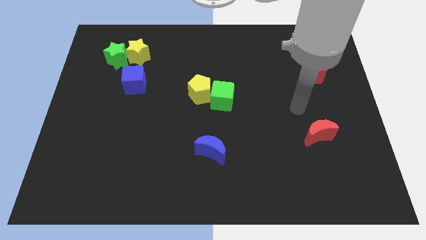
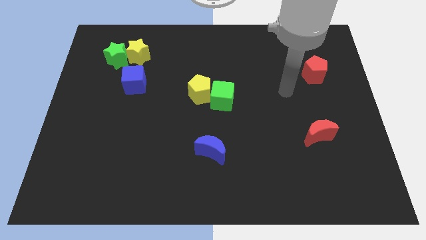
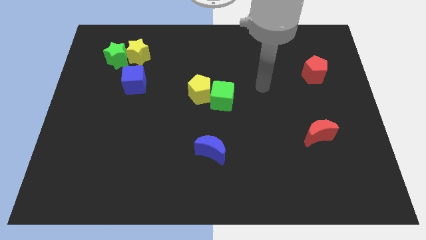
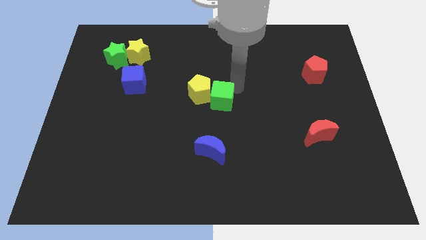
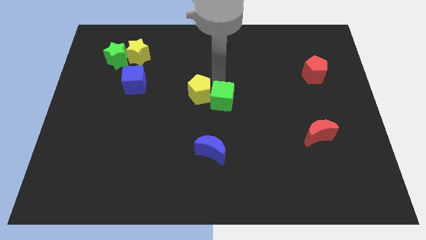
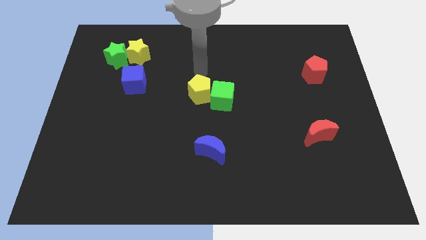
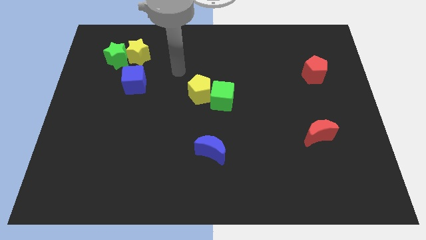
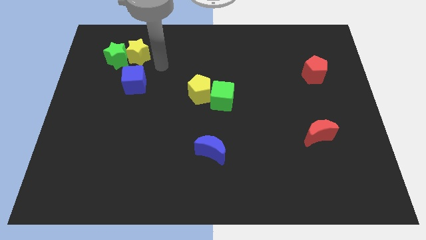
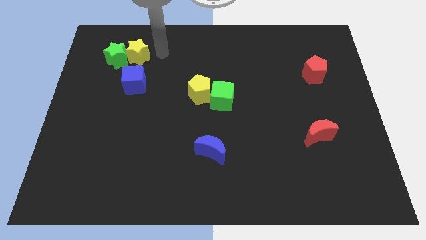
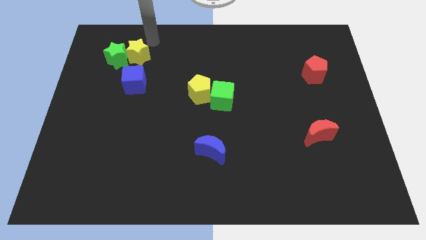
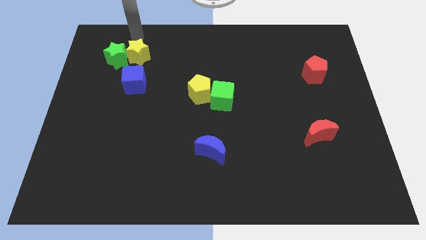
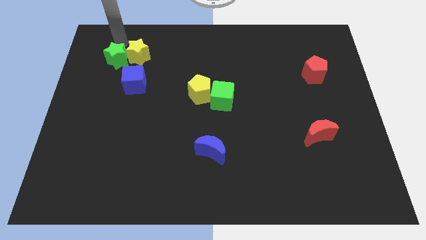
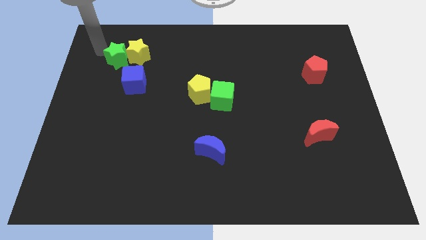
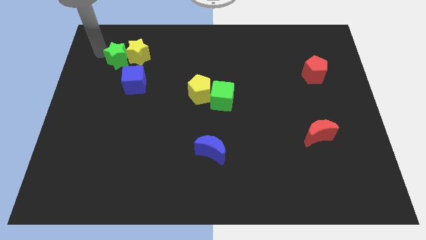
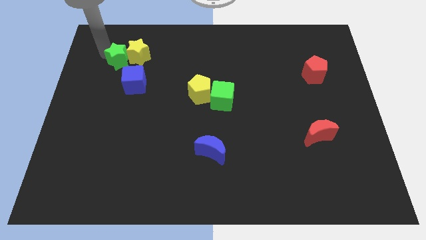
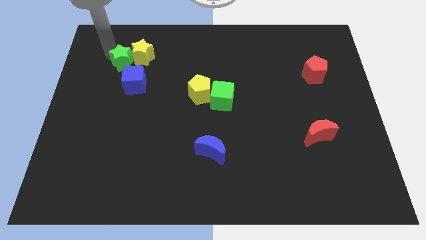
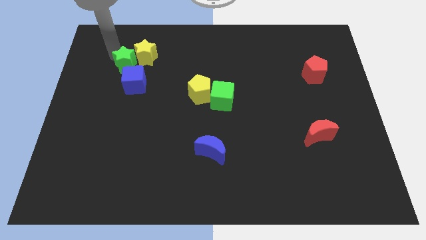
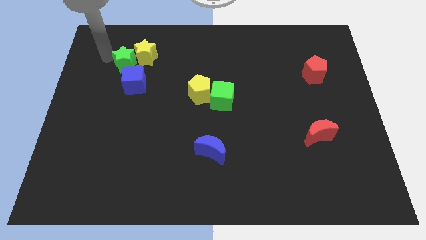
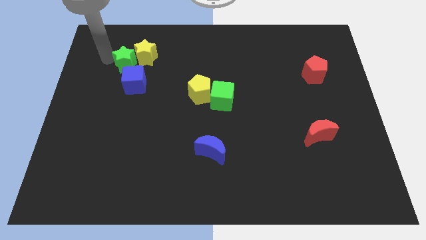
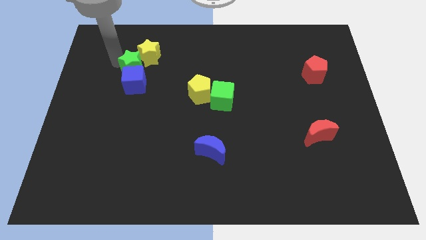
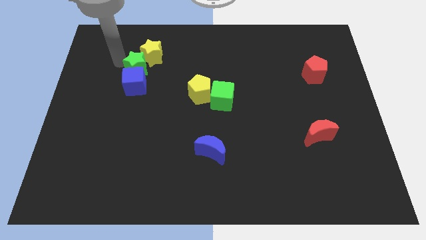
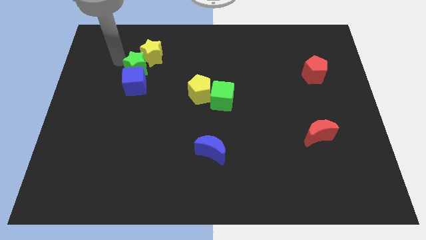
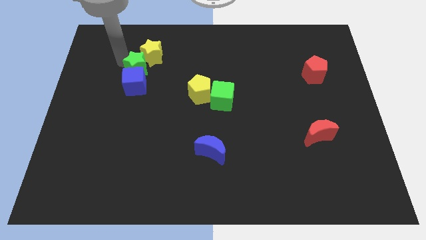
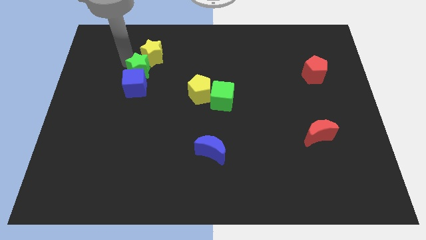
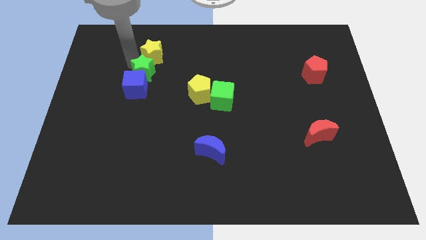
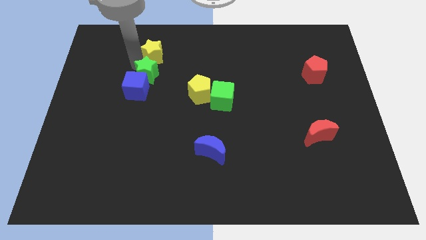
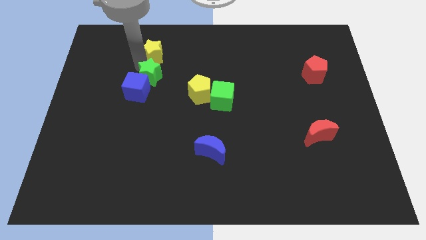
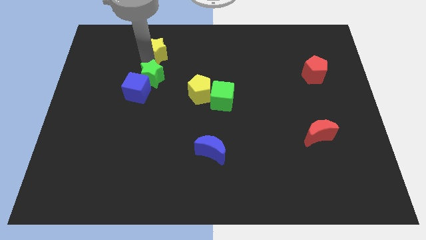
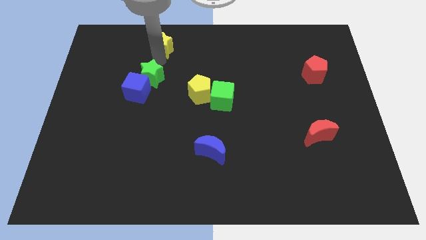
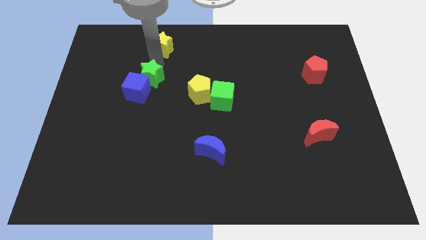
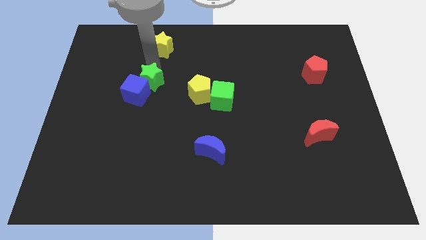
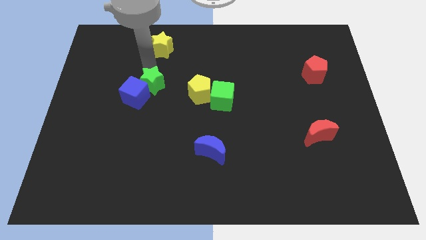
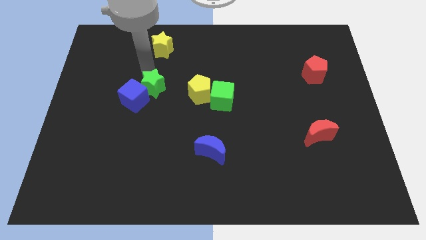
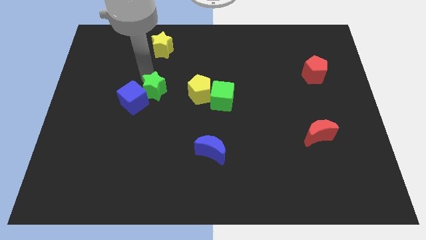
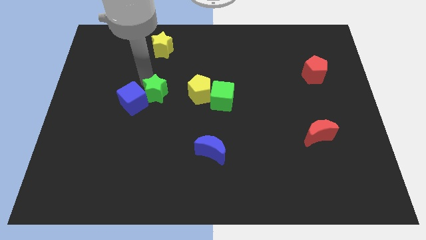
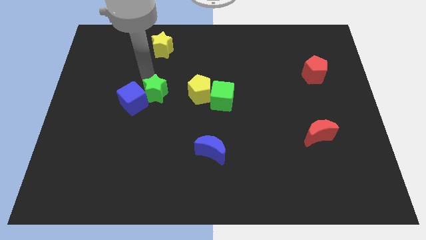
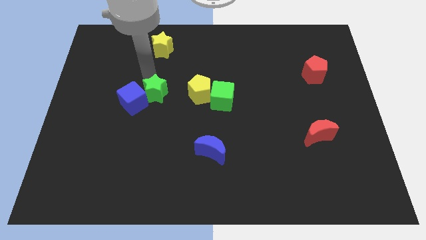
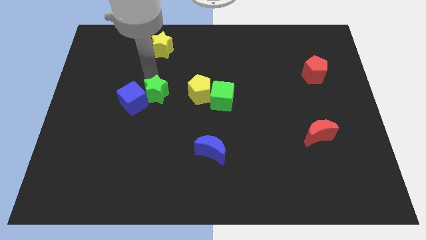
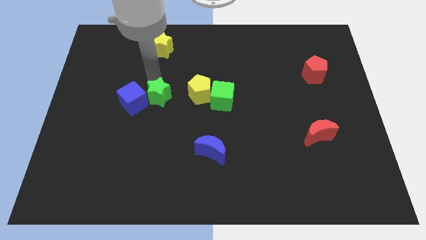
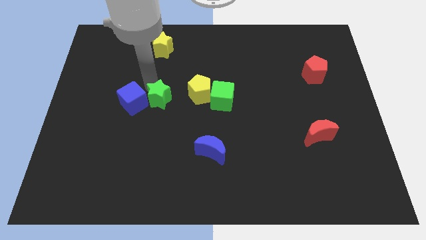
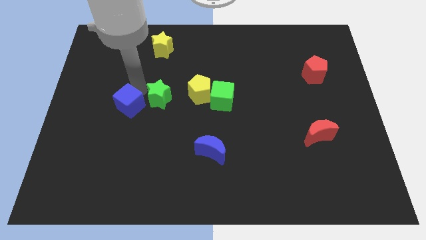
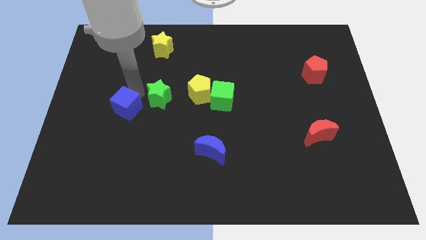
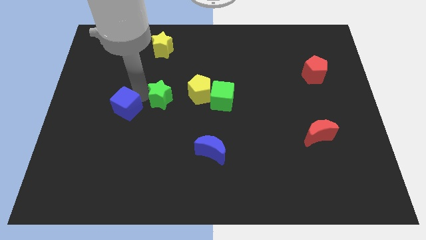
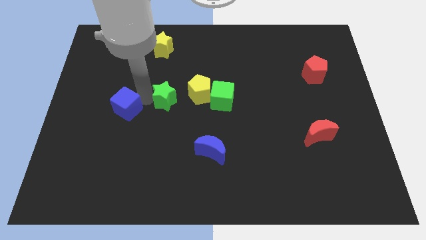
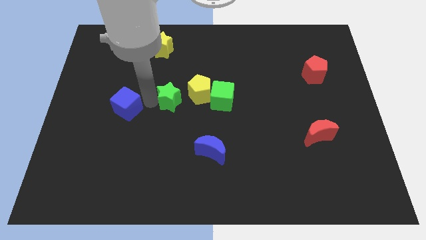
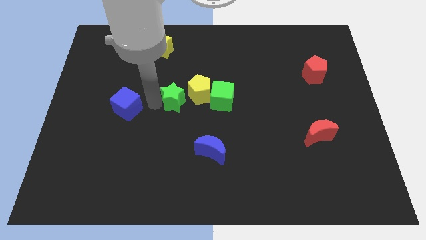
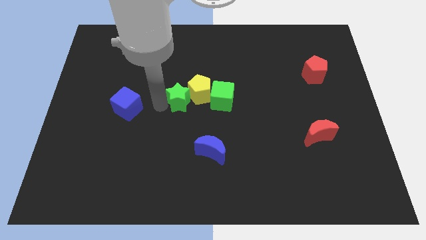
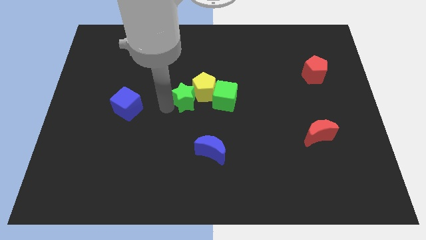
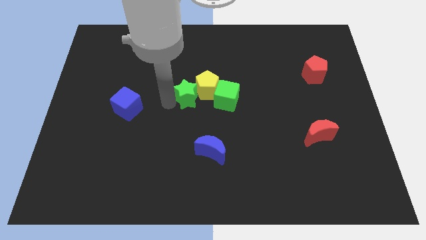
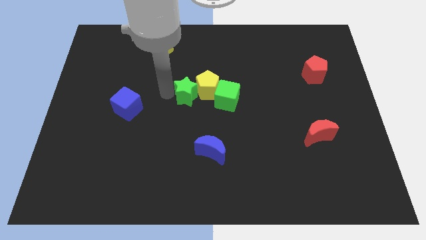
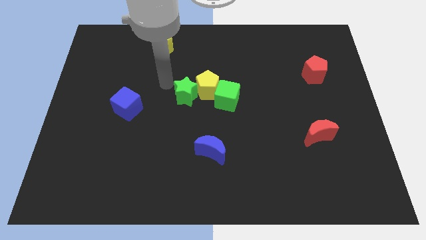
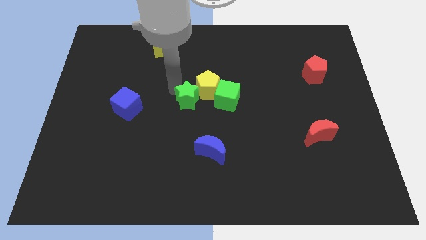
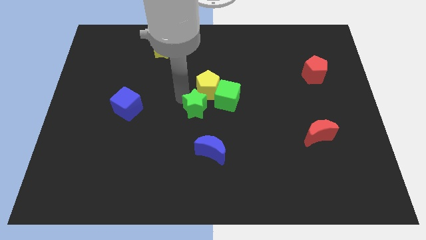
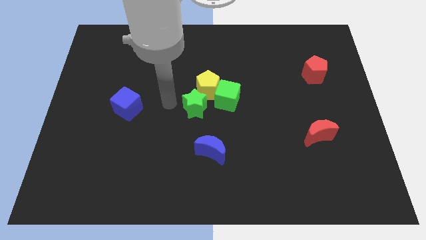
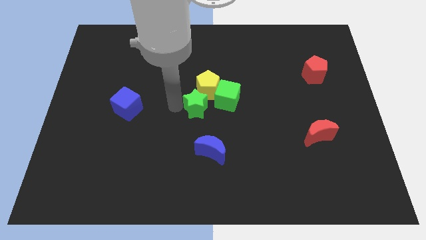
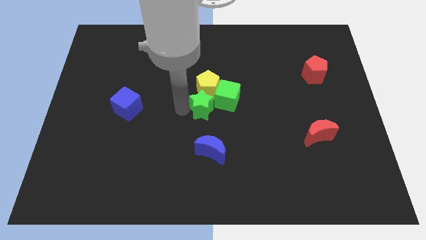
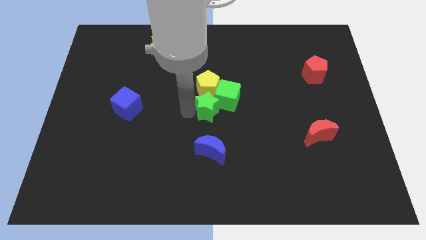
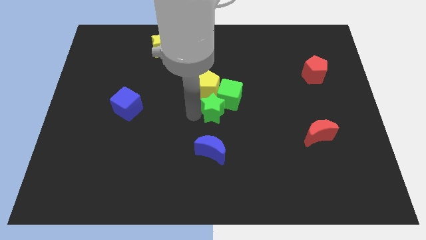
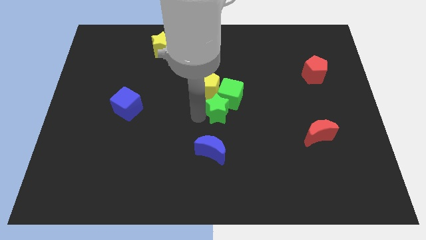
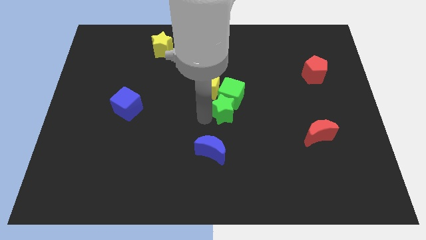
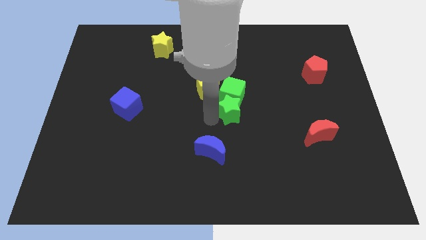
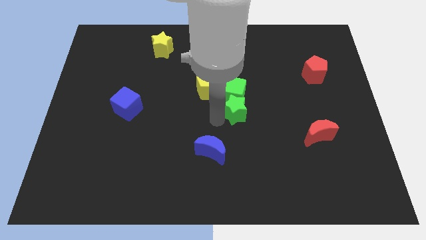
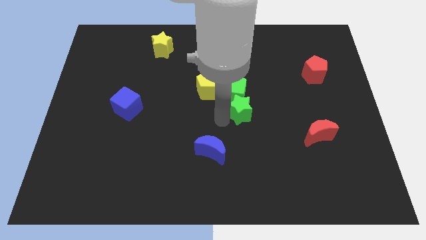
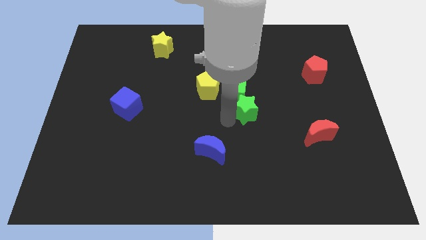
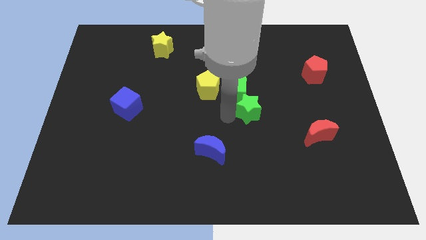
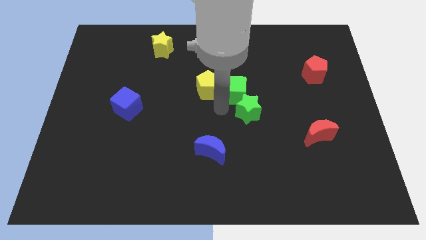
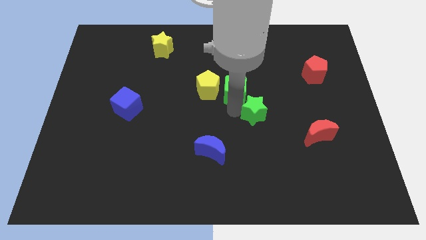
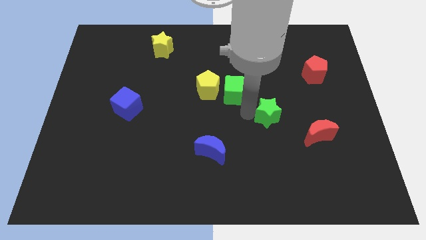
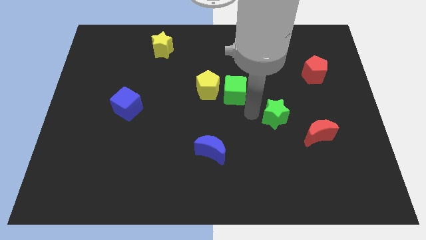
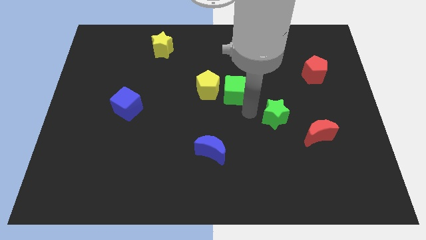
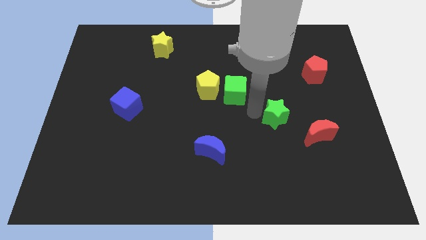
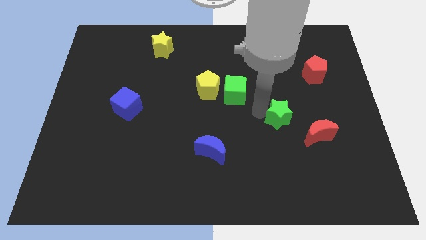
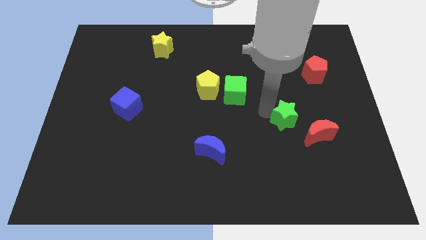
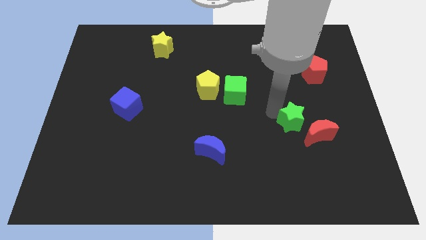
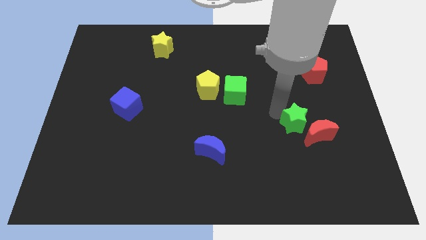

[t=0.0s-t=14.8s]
move the green star close to the red moon
